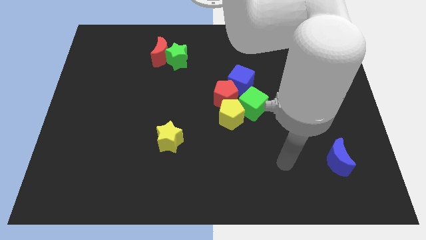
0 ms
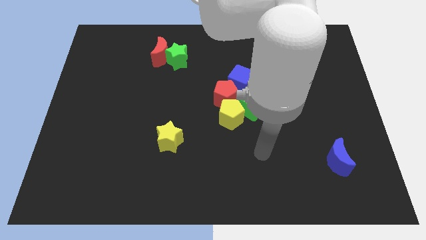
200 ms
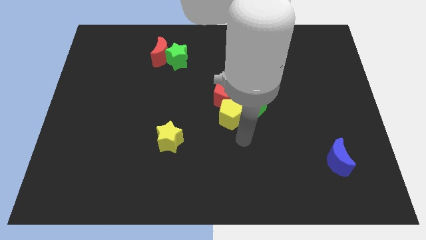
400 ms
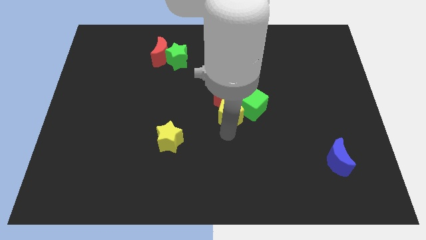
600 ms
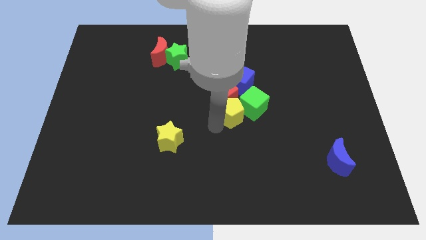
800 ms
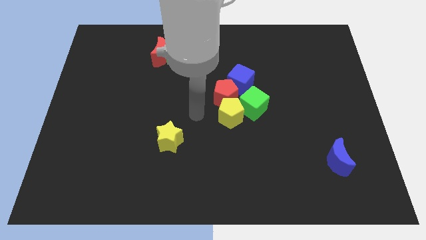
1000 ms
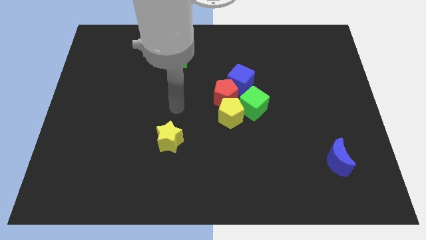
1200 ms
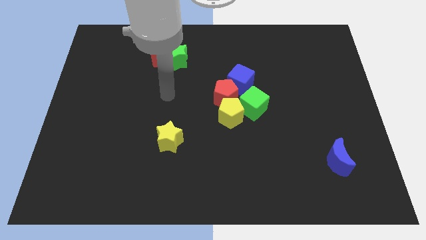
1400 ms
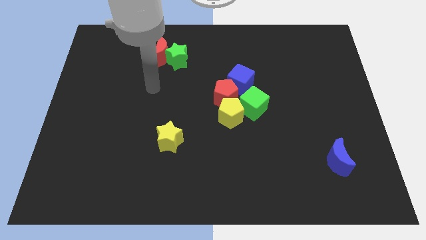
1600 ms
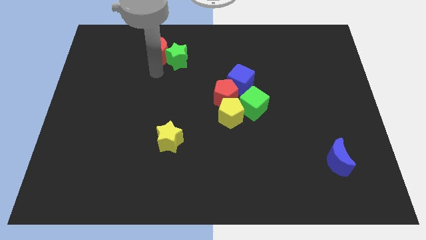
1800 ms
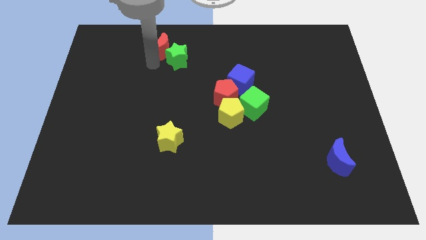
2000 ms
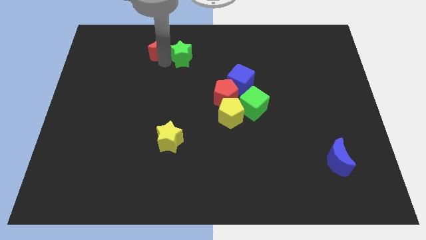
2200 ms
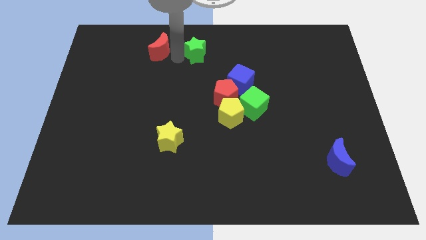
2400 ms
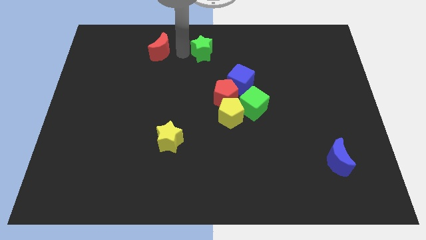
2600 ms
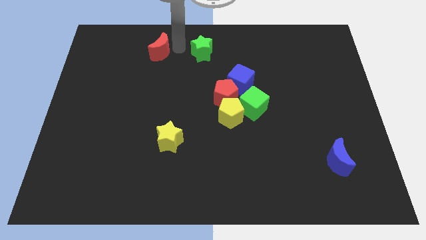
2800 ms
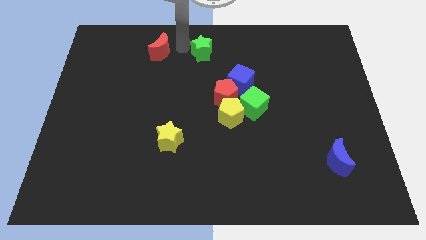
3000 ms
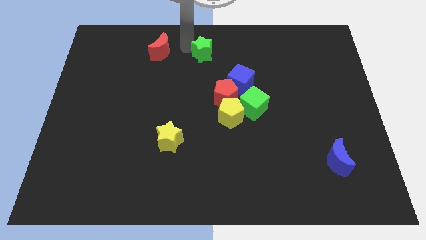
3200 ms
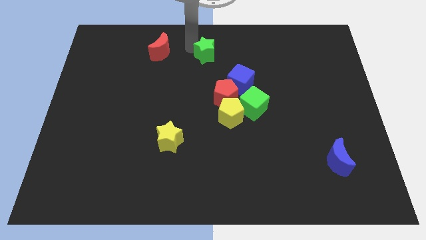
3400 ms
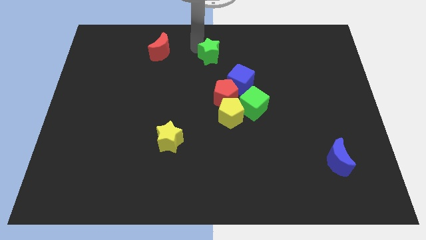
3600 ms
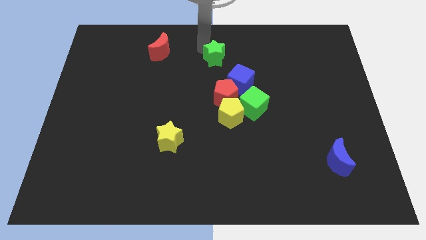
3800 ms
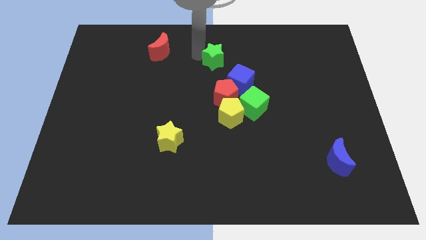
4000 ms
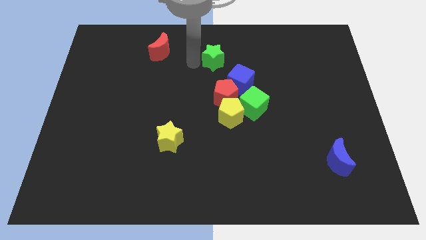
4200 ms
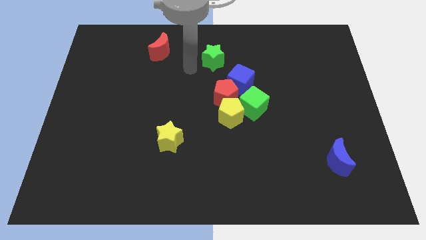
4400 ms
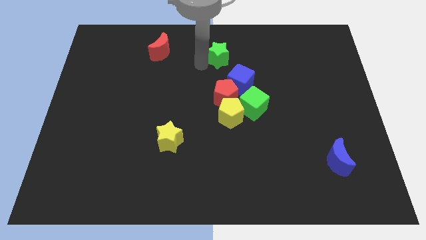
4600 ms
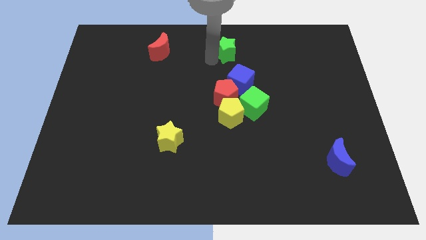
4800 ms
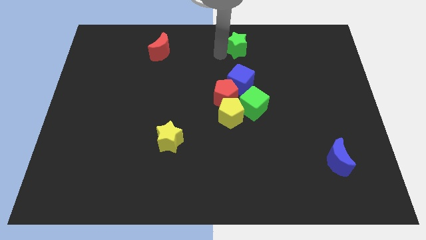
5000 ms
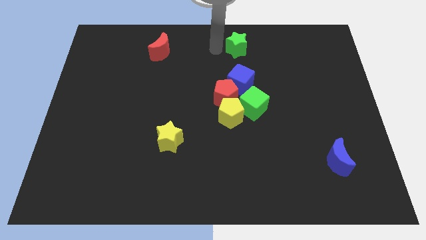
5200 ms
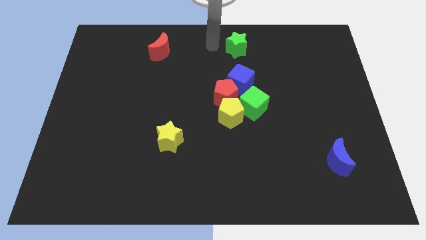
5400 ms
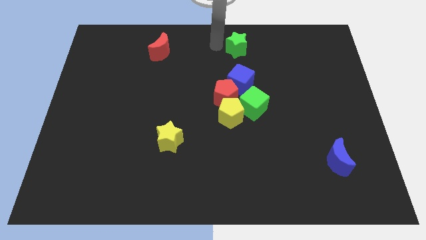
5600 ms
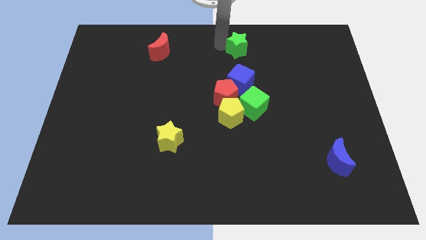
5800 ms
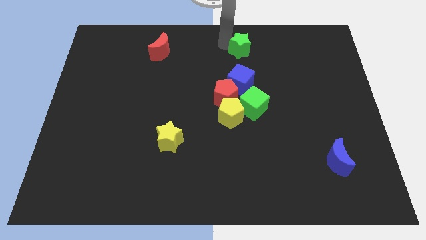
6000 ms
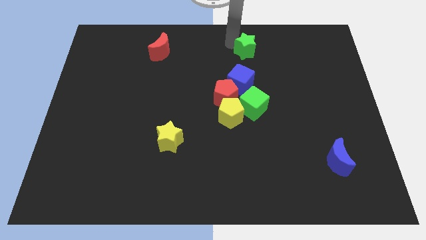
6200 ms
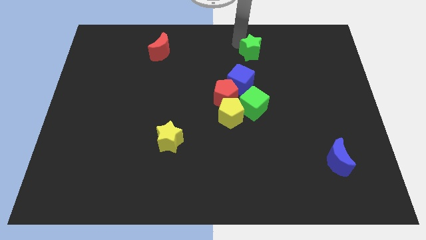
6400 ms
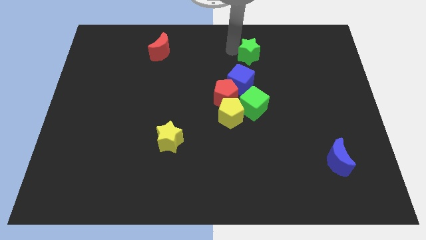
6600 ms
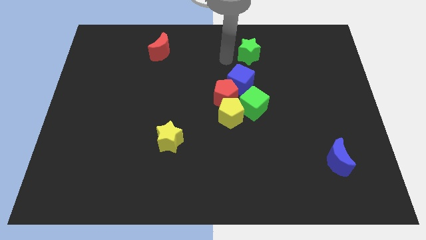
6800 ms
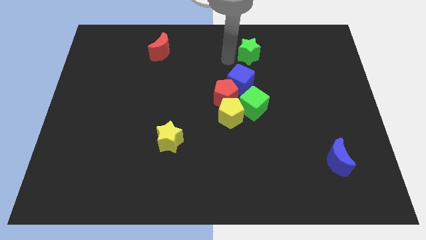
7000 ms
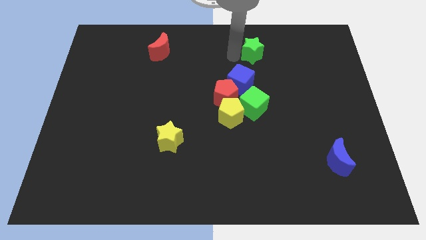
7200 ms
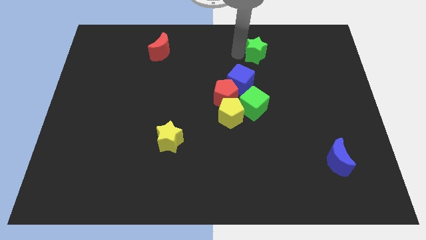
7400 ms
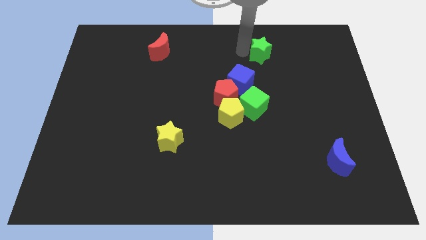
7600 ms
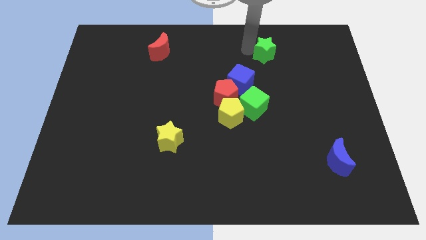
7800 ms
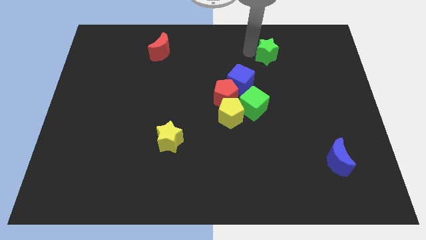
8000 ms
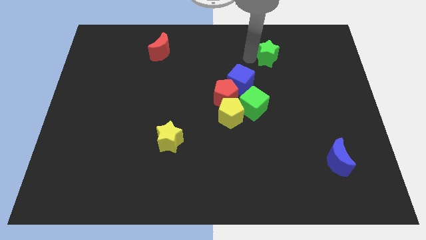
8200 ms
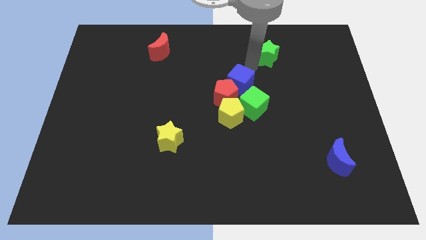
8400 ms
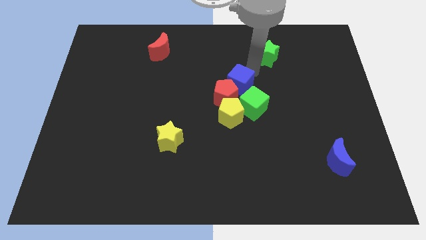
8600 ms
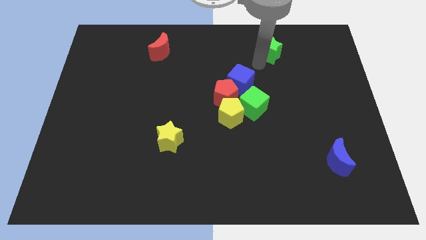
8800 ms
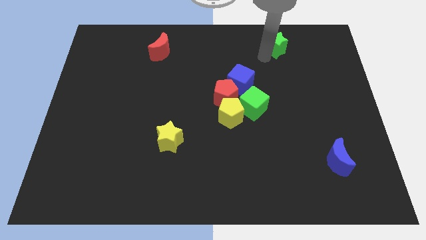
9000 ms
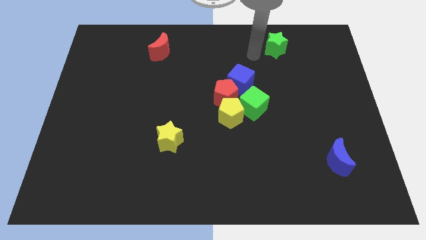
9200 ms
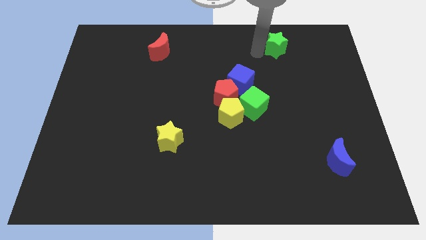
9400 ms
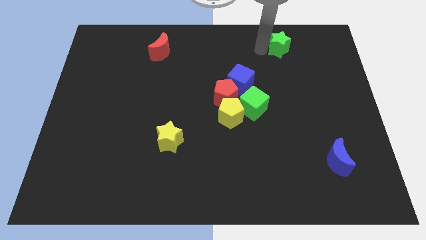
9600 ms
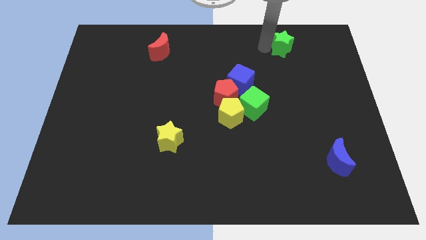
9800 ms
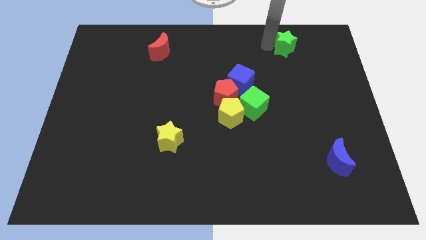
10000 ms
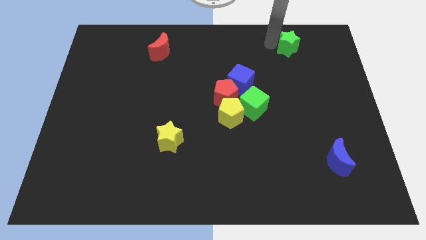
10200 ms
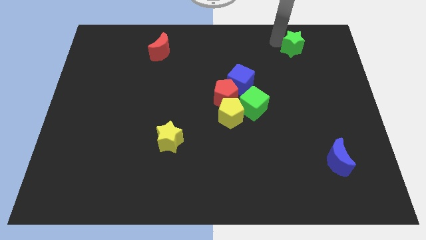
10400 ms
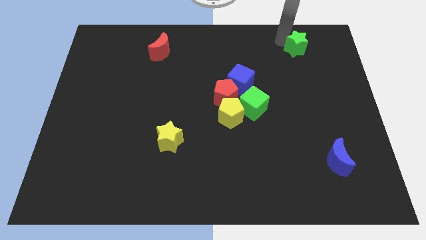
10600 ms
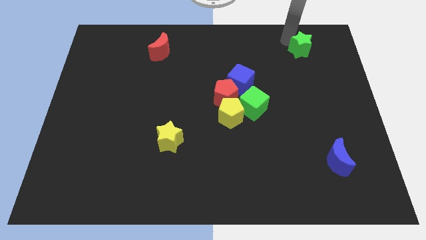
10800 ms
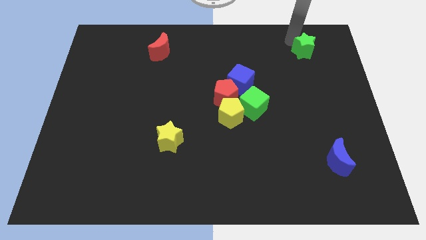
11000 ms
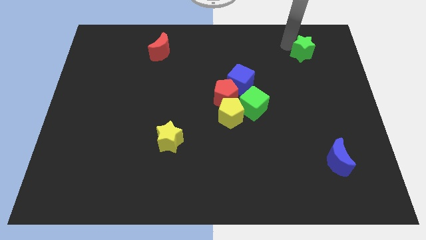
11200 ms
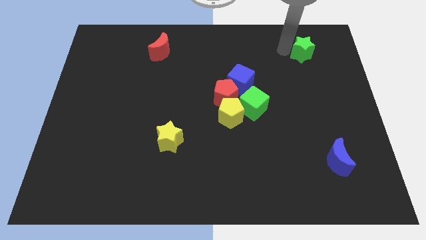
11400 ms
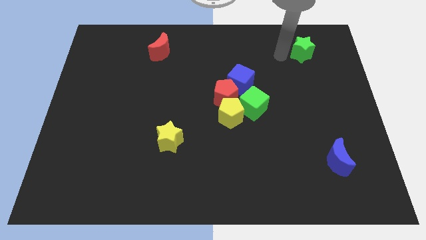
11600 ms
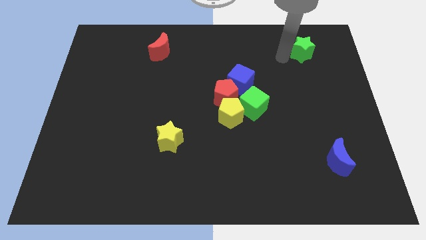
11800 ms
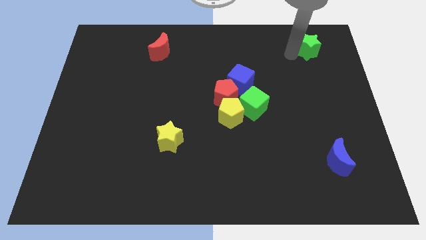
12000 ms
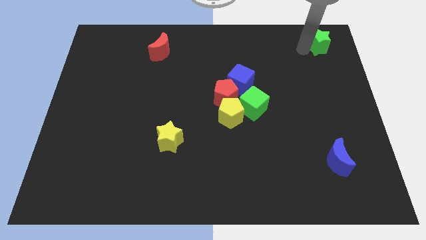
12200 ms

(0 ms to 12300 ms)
slide the green star to the upper right corner
